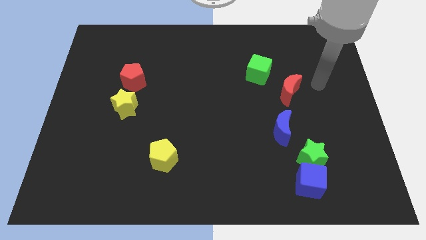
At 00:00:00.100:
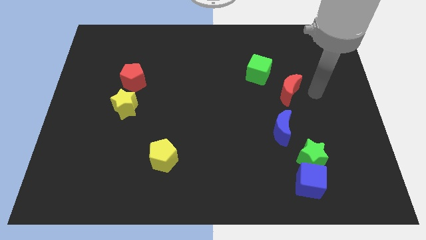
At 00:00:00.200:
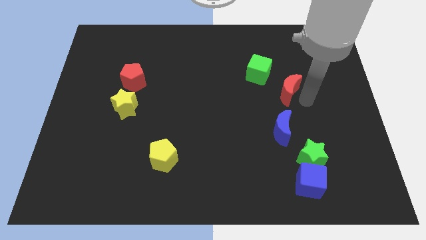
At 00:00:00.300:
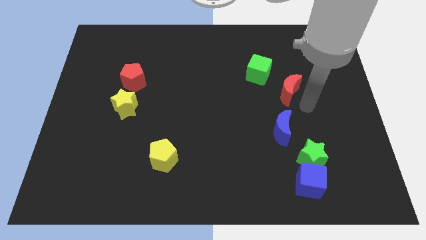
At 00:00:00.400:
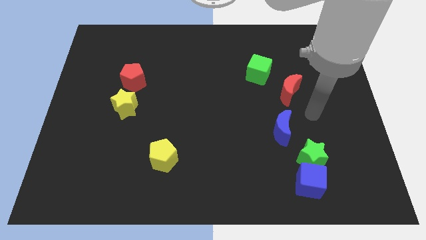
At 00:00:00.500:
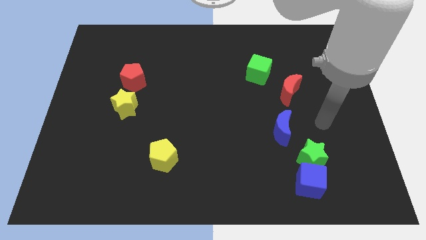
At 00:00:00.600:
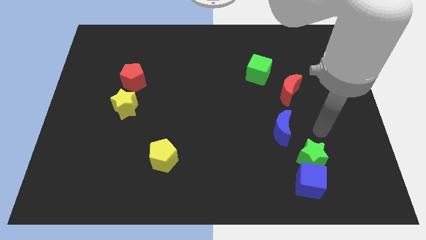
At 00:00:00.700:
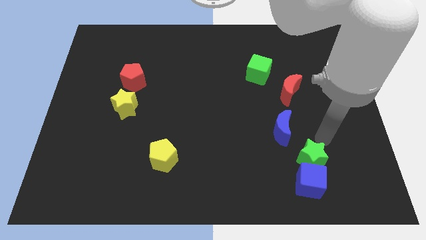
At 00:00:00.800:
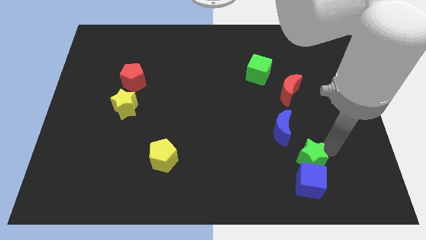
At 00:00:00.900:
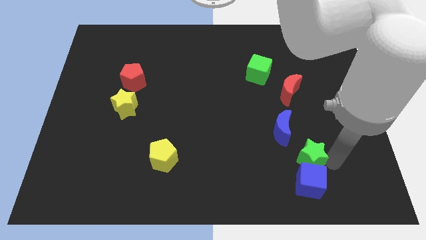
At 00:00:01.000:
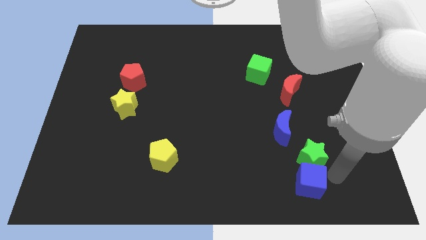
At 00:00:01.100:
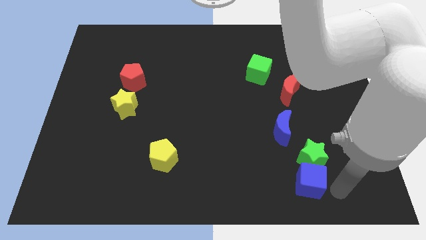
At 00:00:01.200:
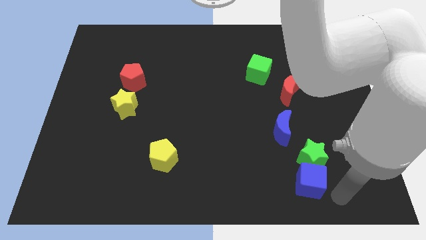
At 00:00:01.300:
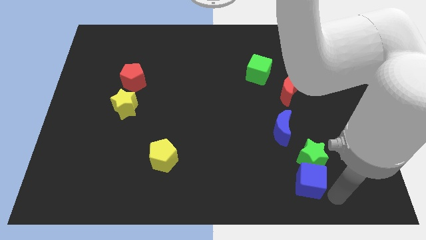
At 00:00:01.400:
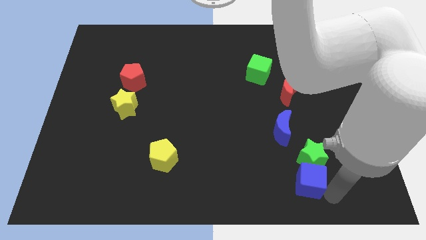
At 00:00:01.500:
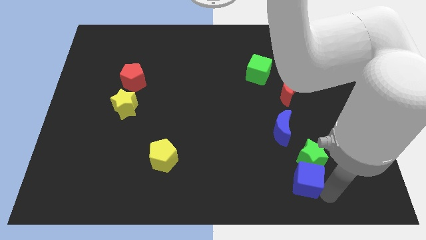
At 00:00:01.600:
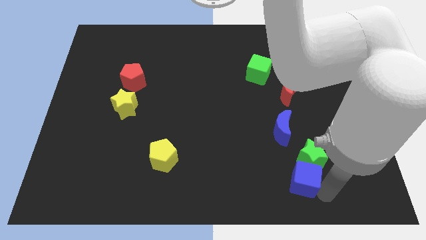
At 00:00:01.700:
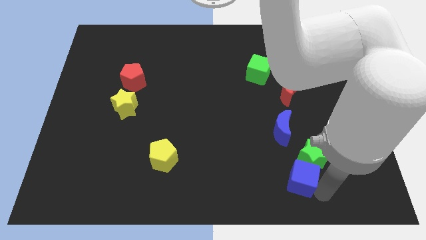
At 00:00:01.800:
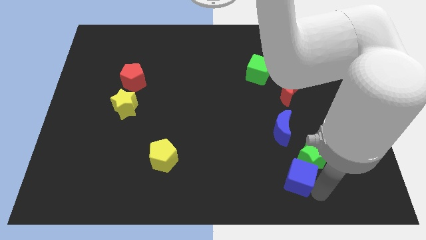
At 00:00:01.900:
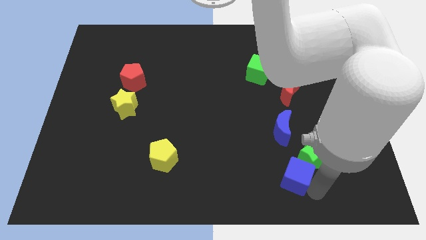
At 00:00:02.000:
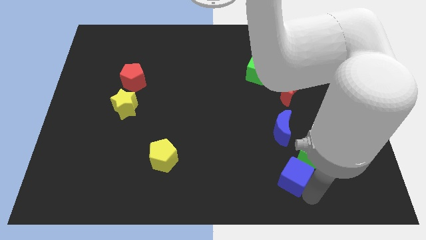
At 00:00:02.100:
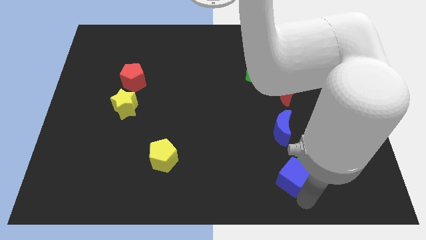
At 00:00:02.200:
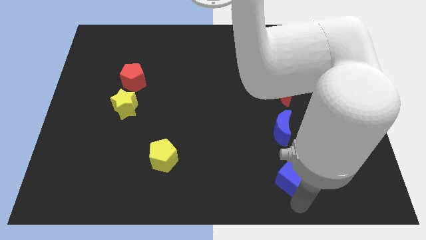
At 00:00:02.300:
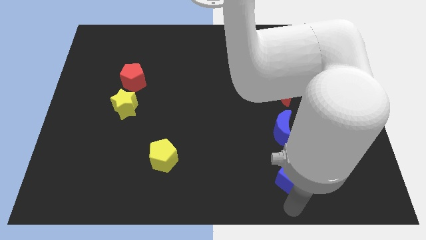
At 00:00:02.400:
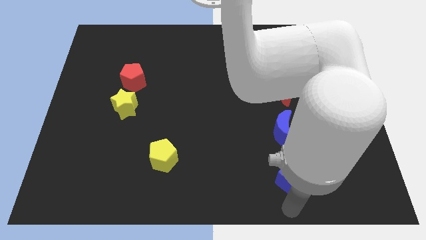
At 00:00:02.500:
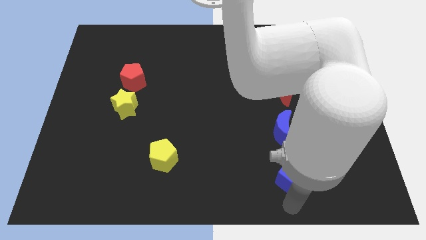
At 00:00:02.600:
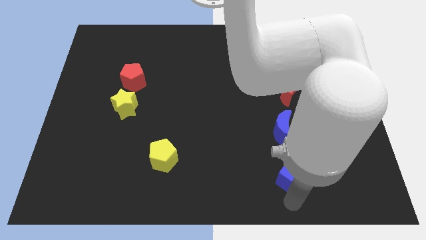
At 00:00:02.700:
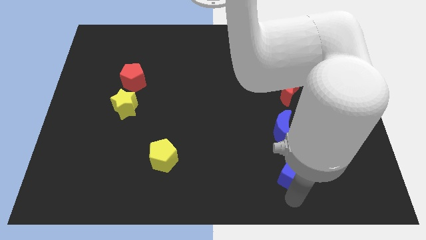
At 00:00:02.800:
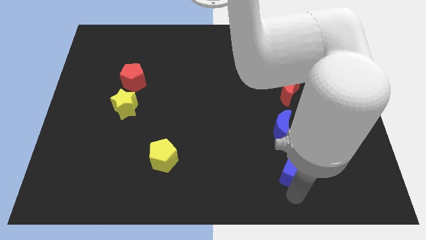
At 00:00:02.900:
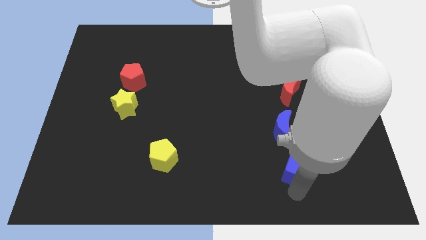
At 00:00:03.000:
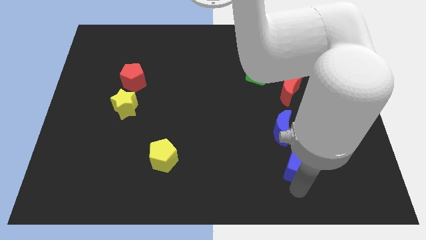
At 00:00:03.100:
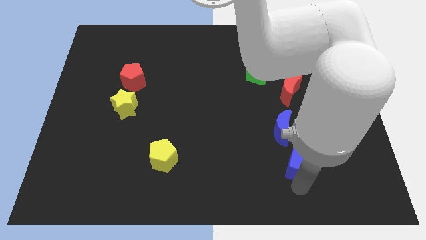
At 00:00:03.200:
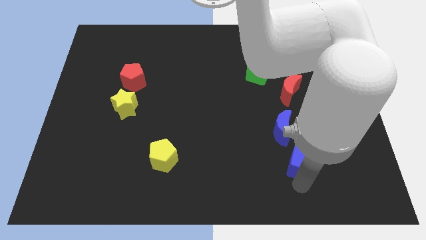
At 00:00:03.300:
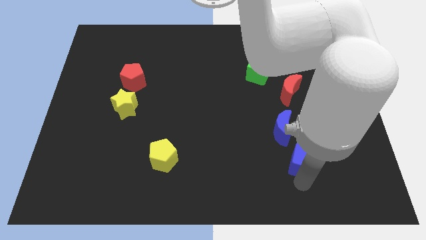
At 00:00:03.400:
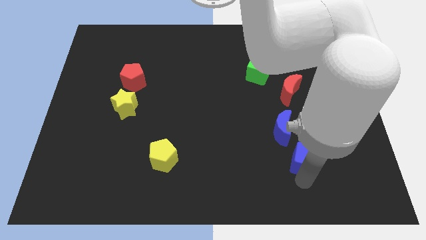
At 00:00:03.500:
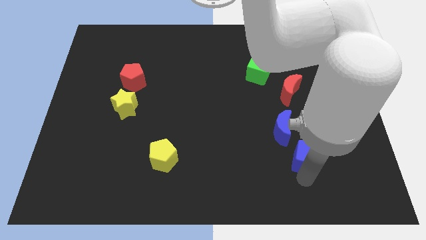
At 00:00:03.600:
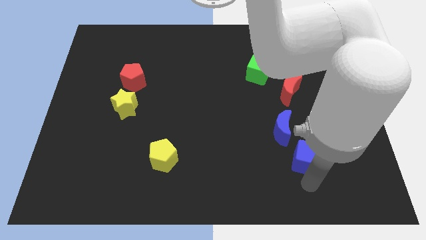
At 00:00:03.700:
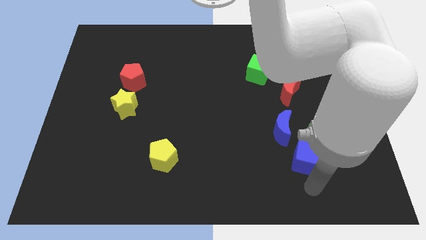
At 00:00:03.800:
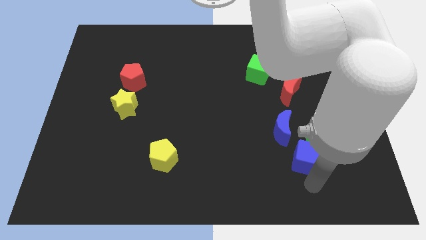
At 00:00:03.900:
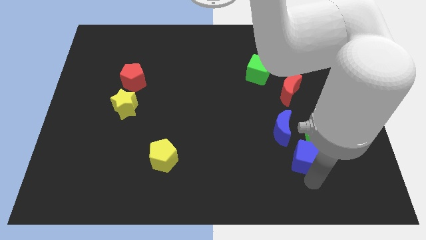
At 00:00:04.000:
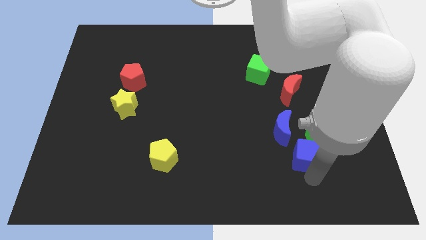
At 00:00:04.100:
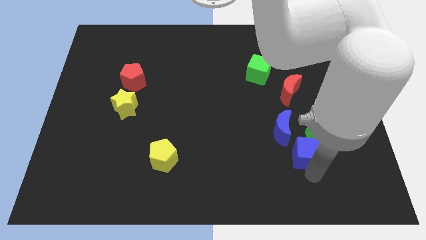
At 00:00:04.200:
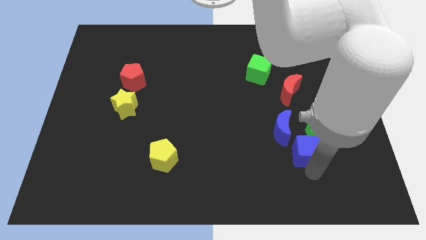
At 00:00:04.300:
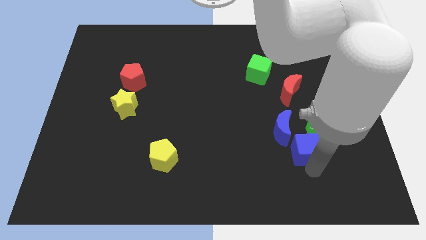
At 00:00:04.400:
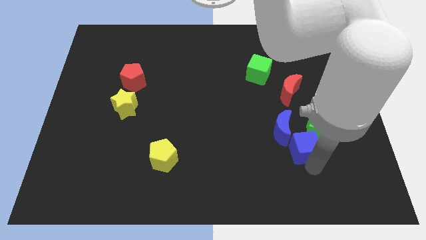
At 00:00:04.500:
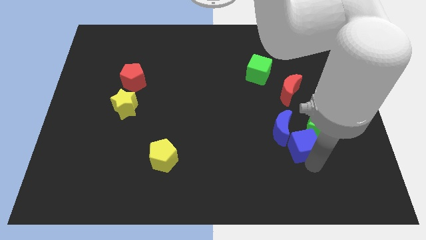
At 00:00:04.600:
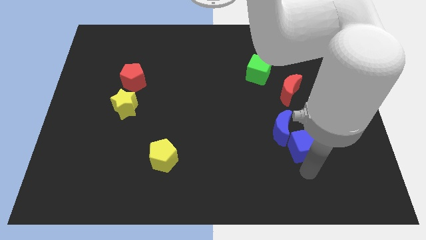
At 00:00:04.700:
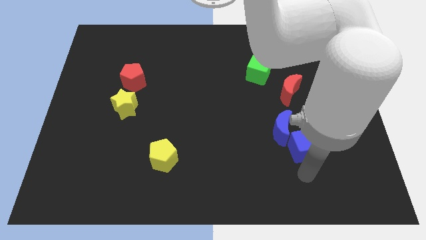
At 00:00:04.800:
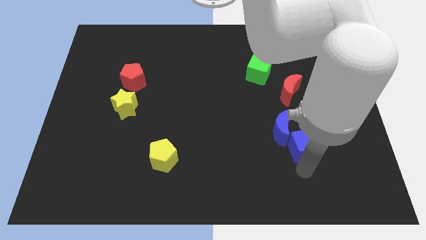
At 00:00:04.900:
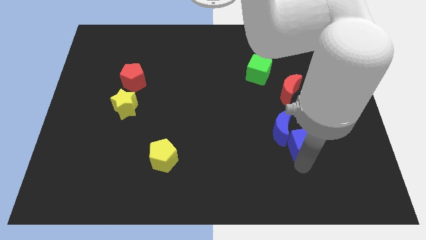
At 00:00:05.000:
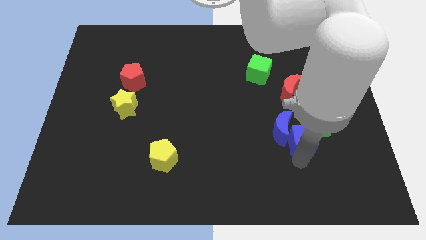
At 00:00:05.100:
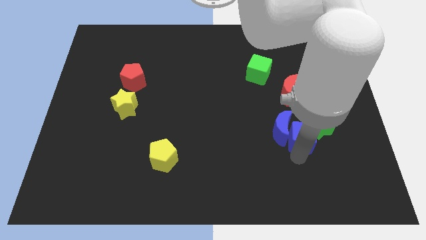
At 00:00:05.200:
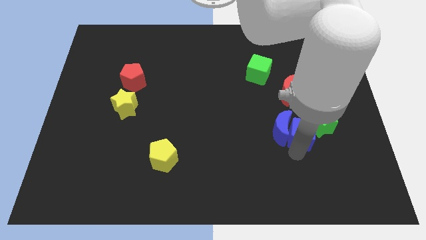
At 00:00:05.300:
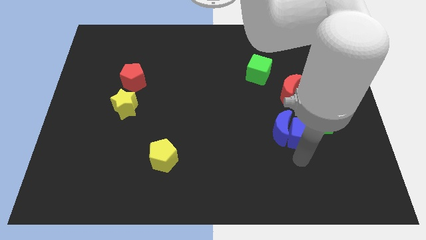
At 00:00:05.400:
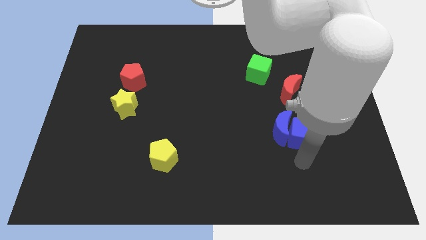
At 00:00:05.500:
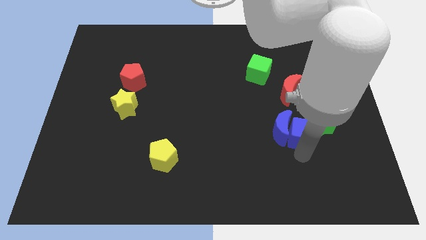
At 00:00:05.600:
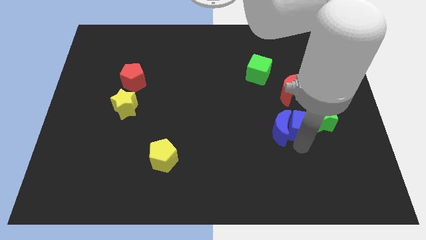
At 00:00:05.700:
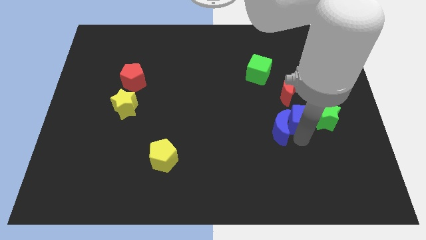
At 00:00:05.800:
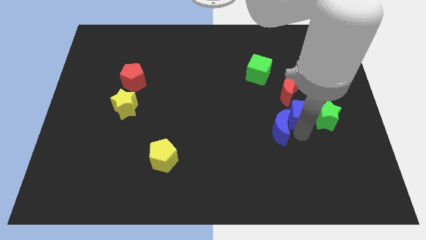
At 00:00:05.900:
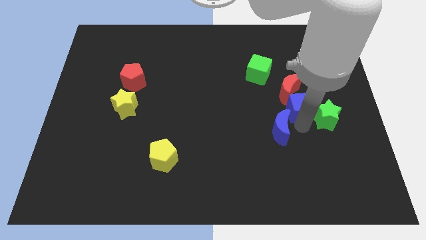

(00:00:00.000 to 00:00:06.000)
push the blue cube close to the red moon
